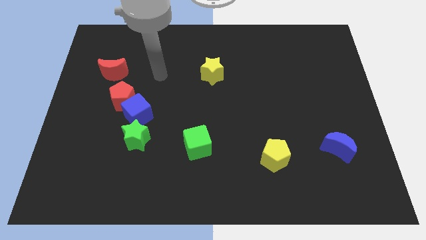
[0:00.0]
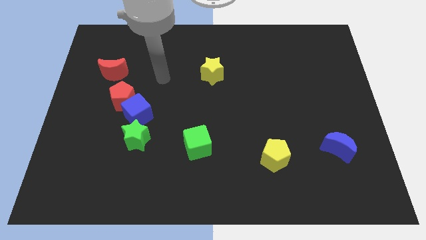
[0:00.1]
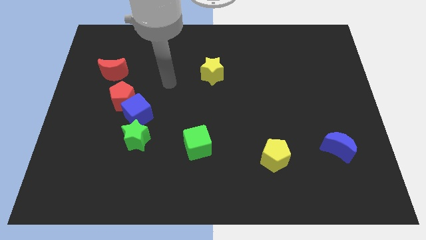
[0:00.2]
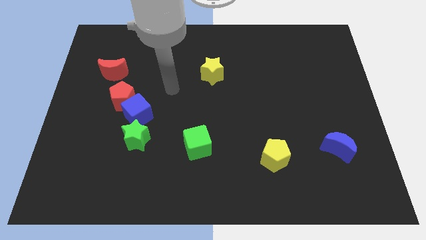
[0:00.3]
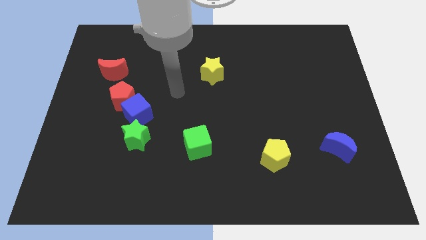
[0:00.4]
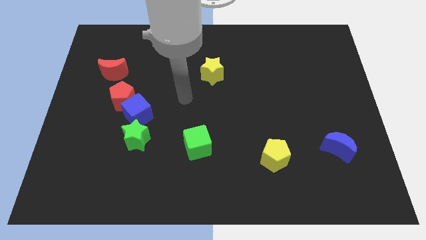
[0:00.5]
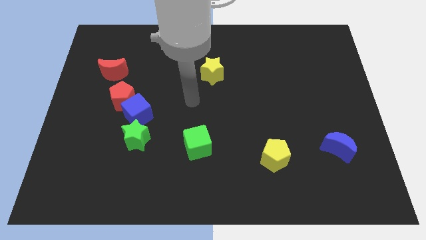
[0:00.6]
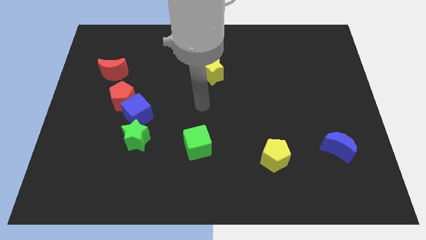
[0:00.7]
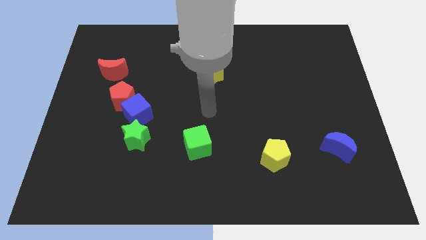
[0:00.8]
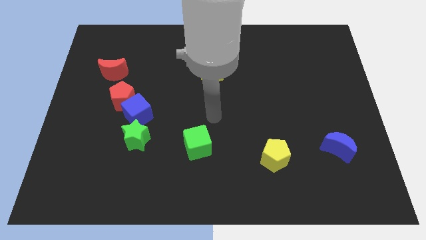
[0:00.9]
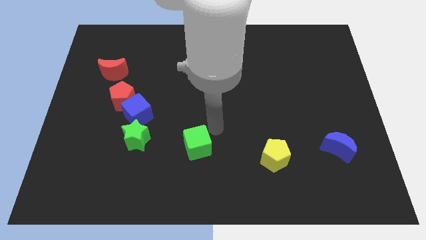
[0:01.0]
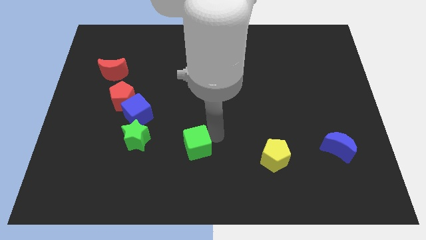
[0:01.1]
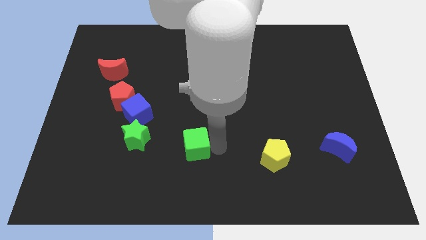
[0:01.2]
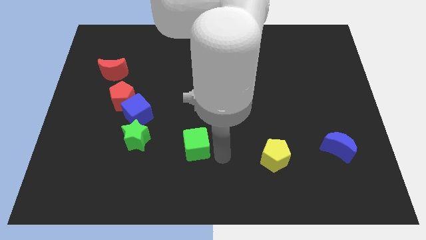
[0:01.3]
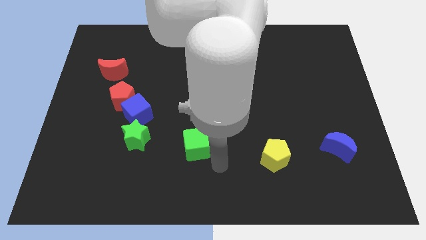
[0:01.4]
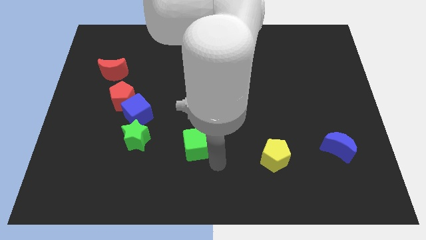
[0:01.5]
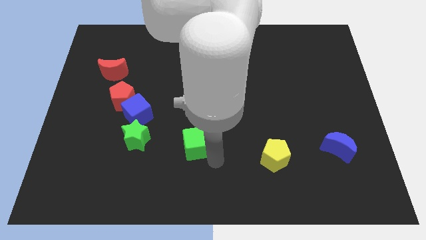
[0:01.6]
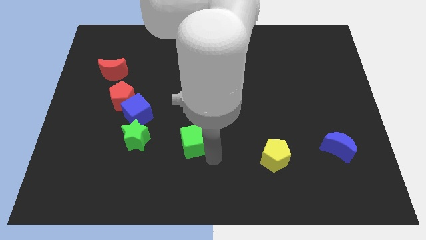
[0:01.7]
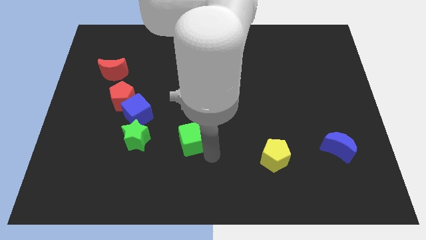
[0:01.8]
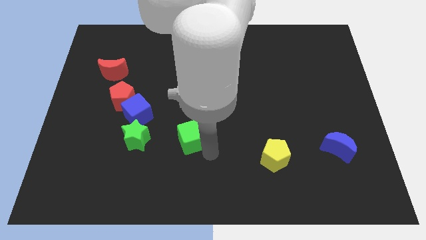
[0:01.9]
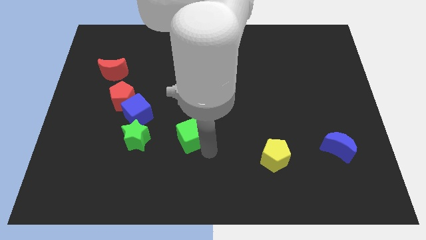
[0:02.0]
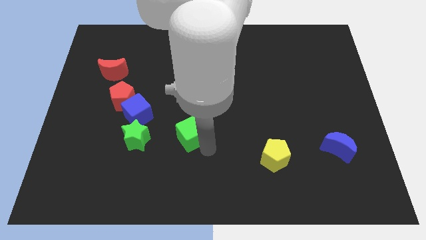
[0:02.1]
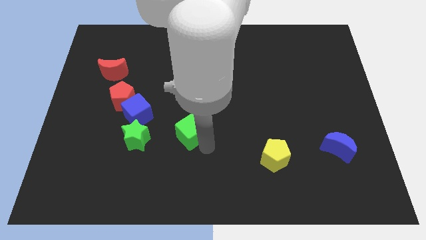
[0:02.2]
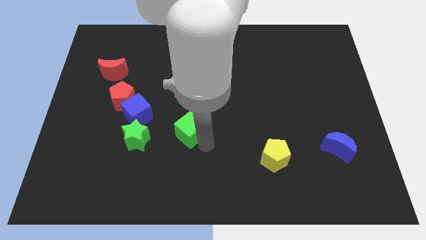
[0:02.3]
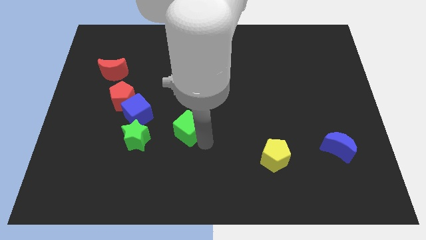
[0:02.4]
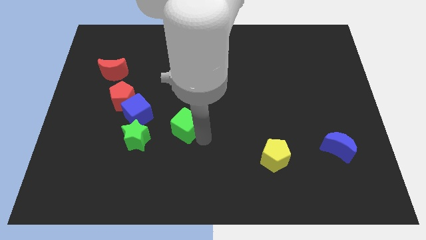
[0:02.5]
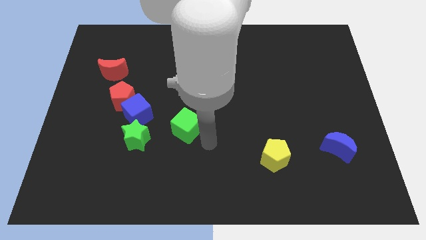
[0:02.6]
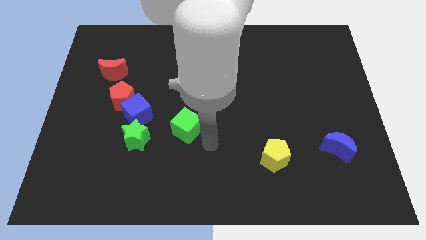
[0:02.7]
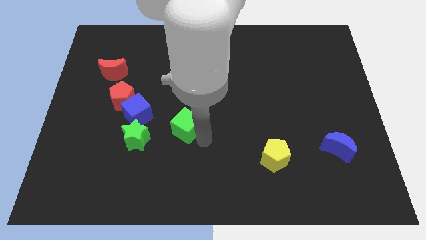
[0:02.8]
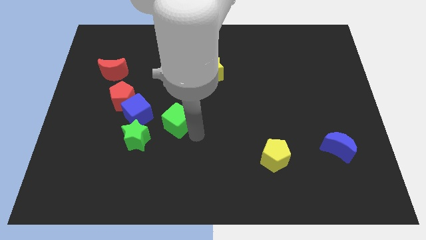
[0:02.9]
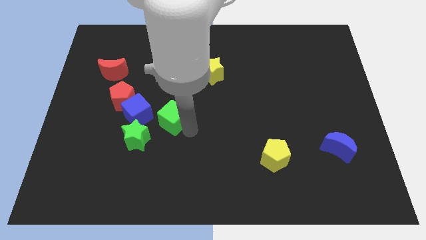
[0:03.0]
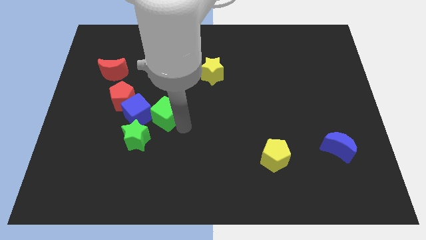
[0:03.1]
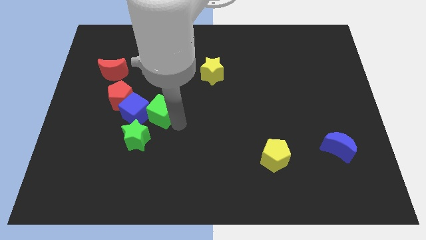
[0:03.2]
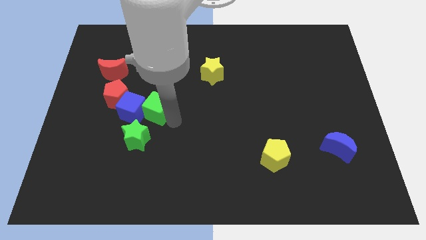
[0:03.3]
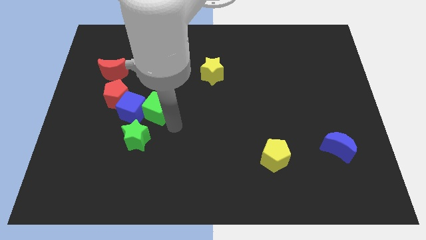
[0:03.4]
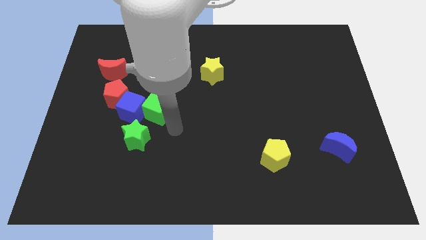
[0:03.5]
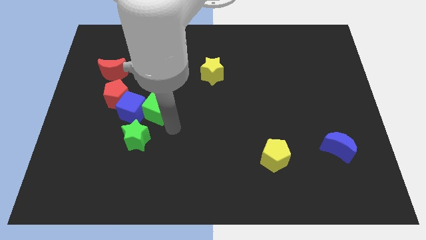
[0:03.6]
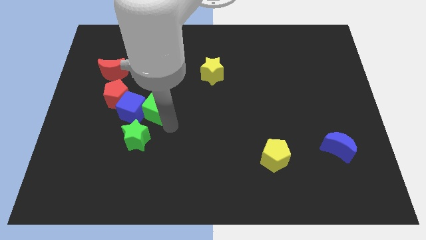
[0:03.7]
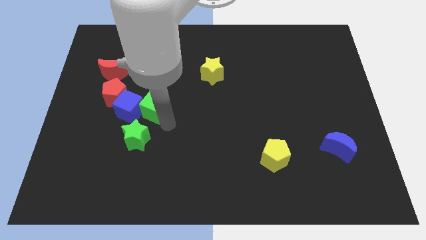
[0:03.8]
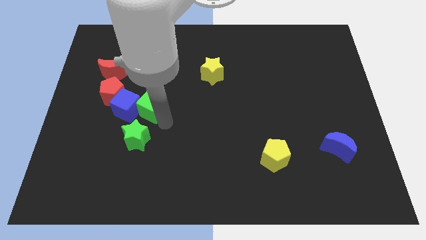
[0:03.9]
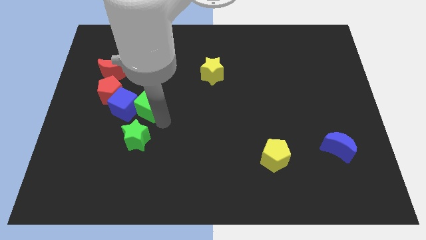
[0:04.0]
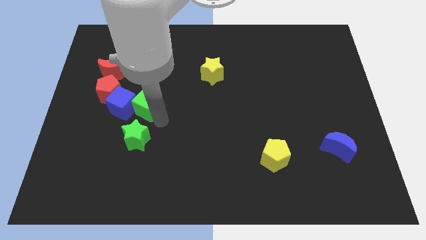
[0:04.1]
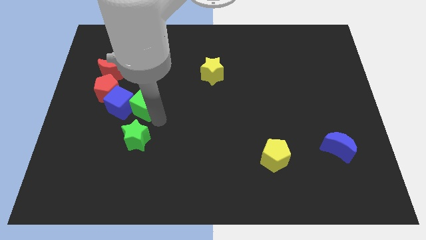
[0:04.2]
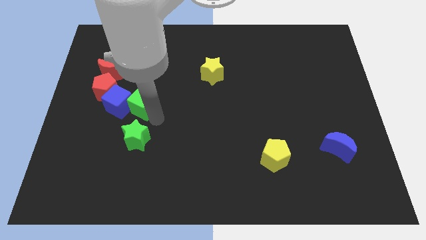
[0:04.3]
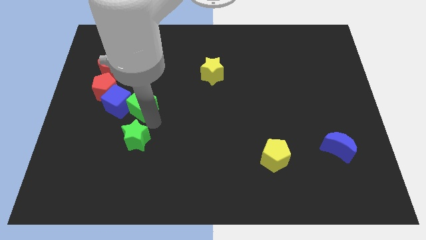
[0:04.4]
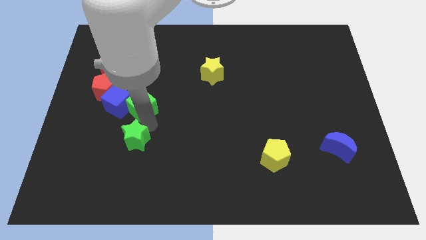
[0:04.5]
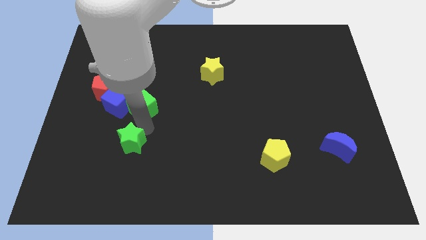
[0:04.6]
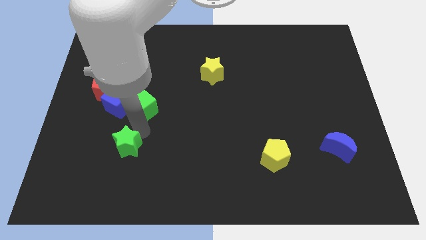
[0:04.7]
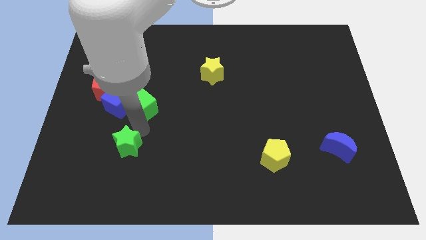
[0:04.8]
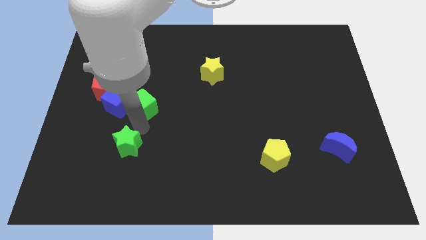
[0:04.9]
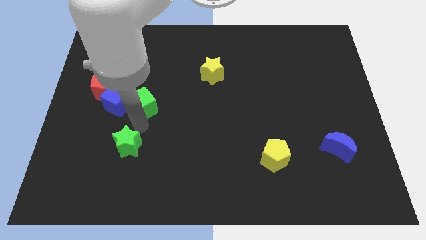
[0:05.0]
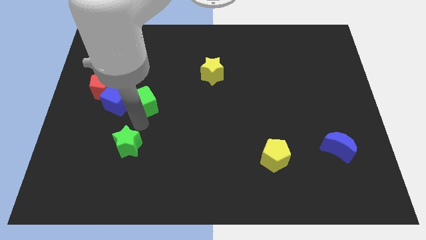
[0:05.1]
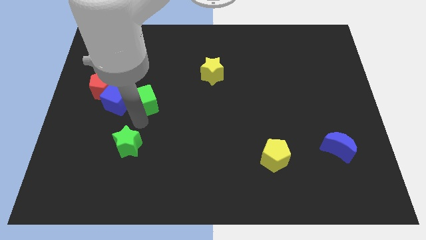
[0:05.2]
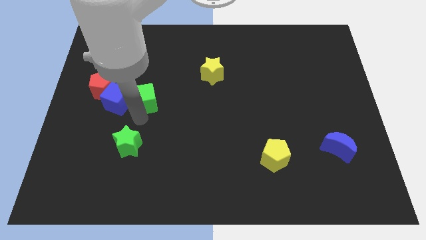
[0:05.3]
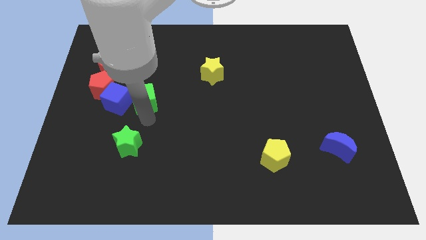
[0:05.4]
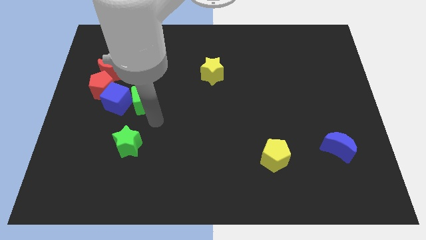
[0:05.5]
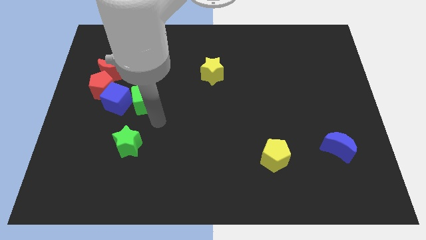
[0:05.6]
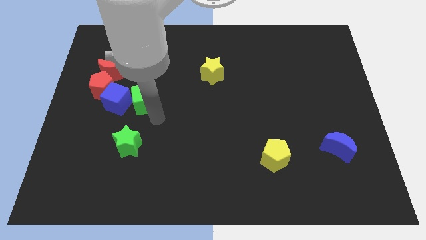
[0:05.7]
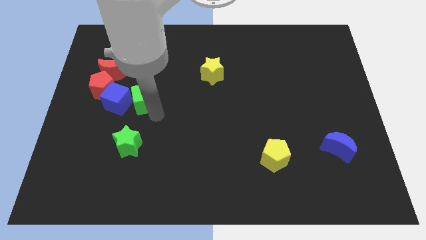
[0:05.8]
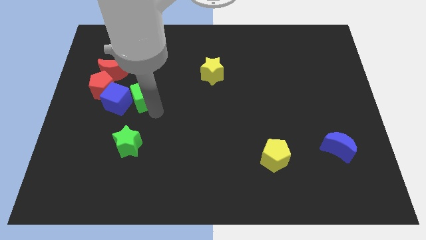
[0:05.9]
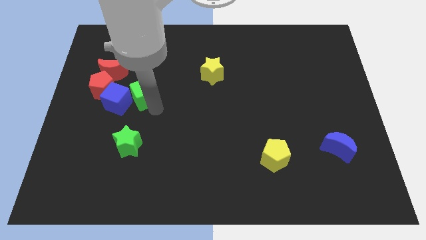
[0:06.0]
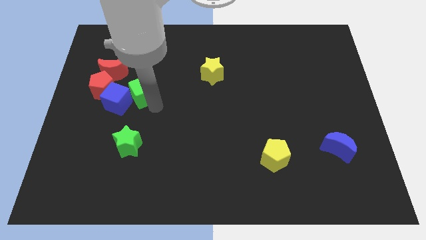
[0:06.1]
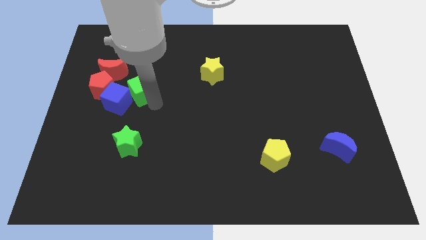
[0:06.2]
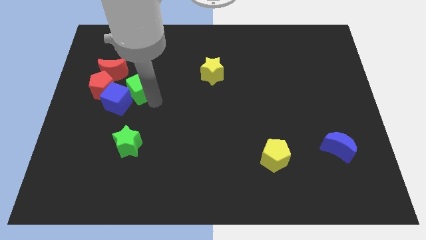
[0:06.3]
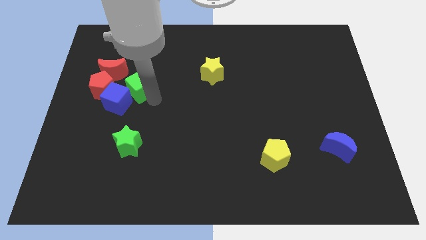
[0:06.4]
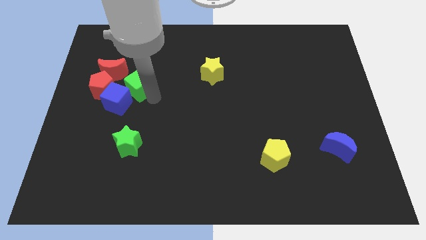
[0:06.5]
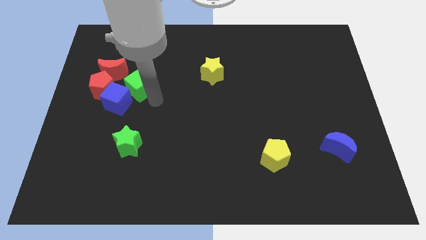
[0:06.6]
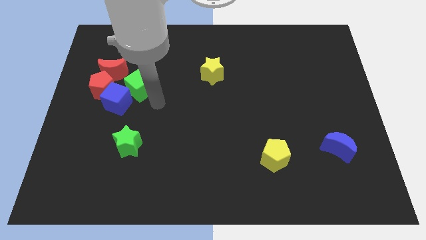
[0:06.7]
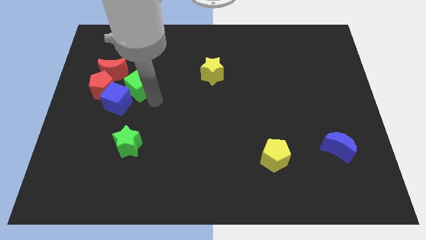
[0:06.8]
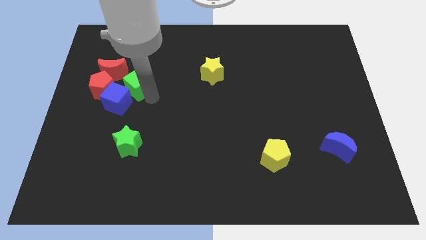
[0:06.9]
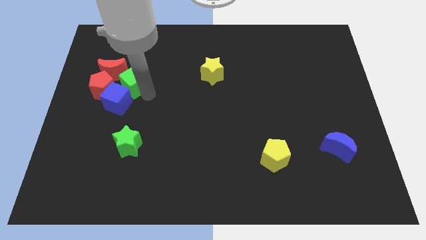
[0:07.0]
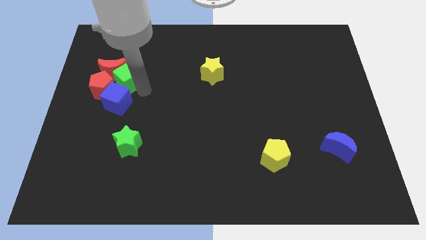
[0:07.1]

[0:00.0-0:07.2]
slide the green cube close to the red moon

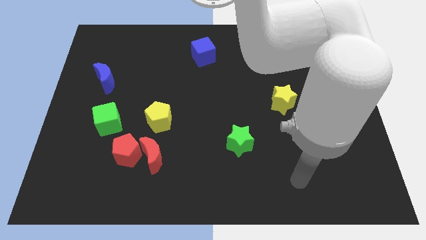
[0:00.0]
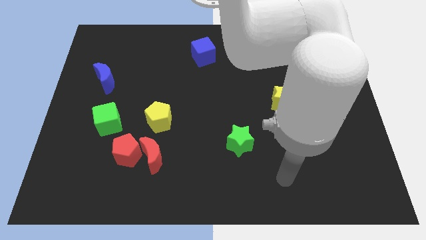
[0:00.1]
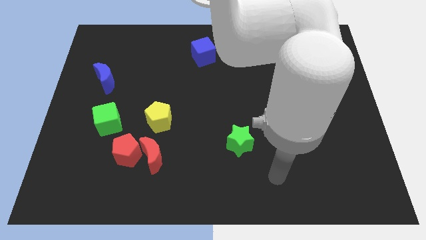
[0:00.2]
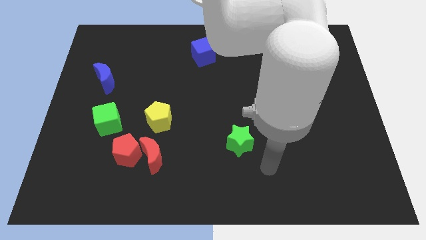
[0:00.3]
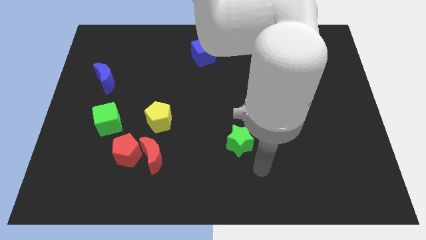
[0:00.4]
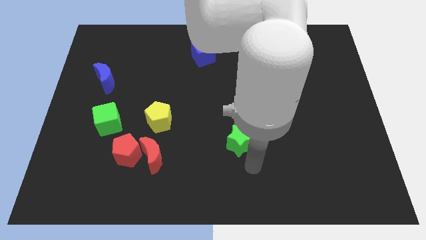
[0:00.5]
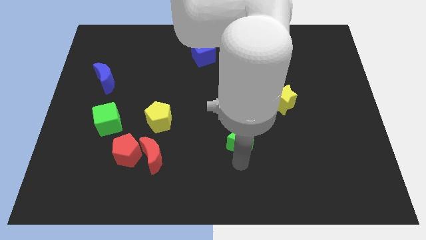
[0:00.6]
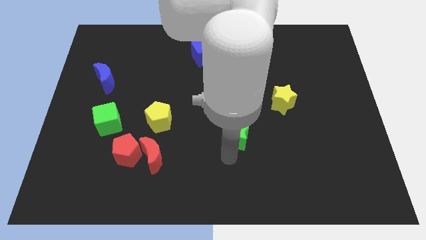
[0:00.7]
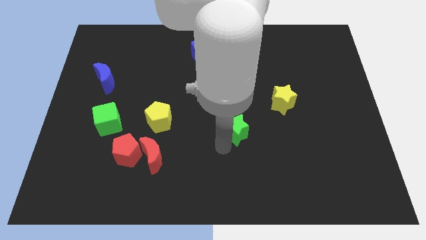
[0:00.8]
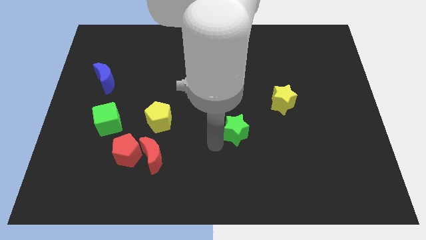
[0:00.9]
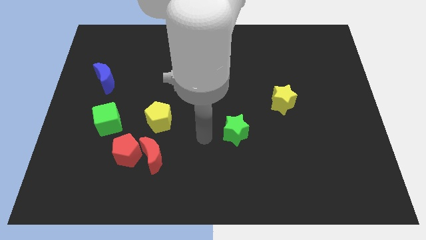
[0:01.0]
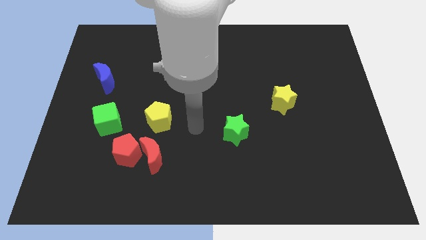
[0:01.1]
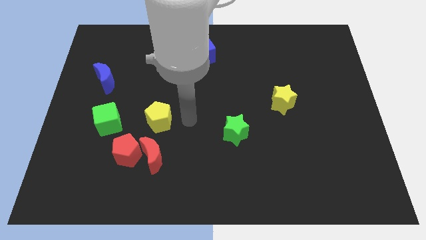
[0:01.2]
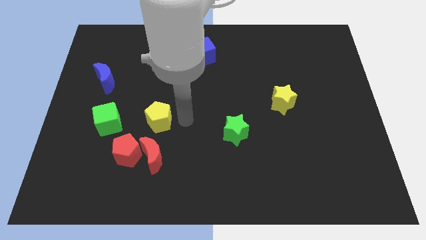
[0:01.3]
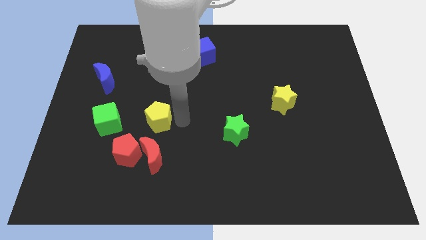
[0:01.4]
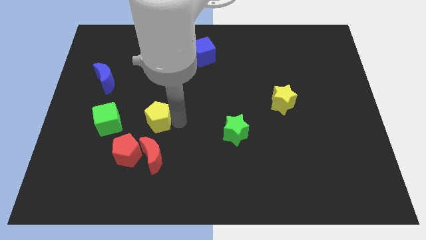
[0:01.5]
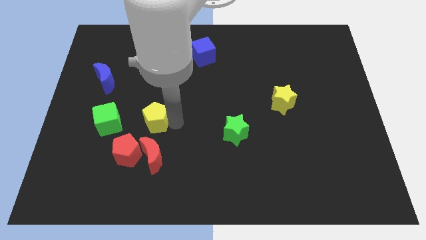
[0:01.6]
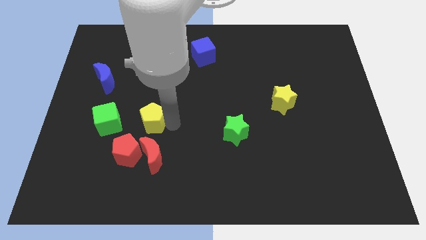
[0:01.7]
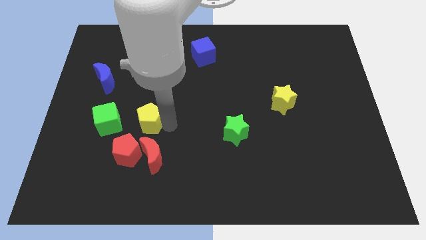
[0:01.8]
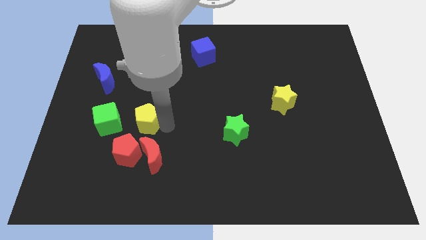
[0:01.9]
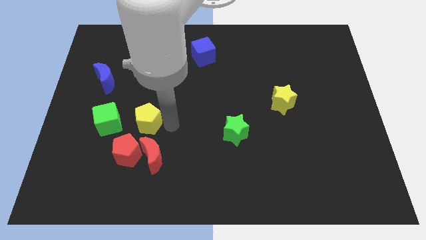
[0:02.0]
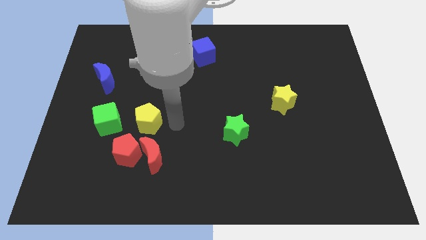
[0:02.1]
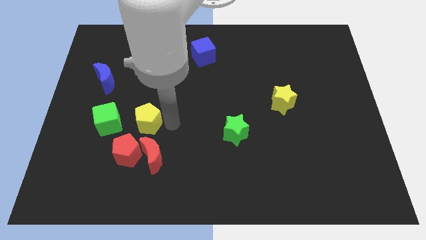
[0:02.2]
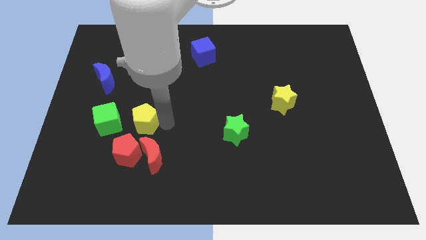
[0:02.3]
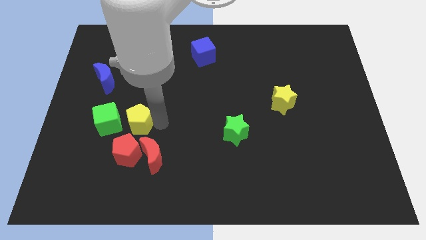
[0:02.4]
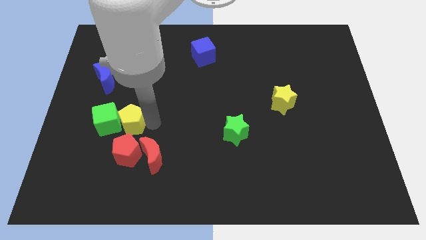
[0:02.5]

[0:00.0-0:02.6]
move the yellow pentagon towards the green cube
